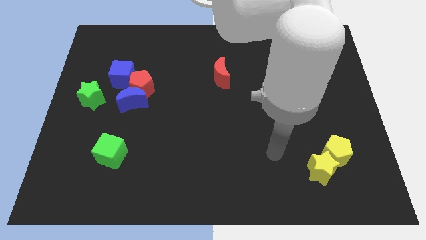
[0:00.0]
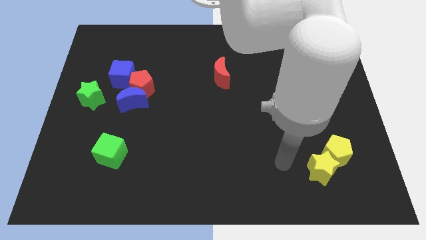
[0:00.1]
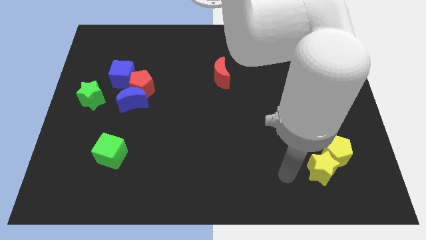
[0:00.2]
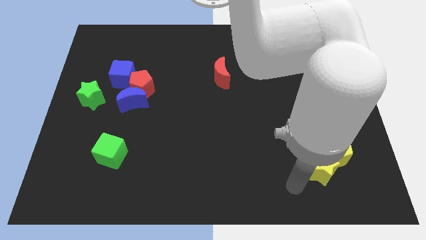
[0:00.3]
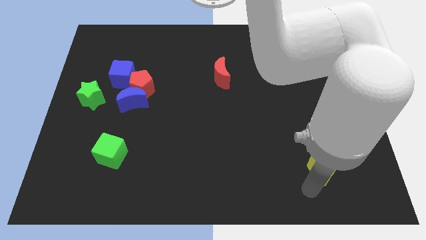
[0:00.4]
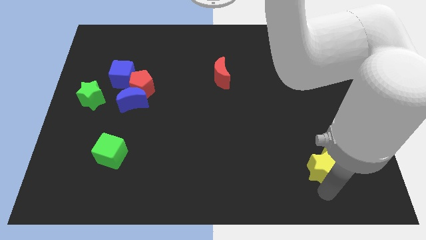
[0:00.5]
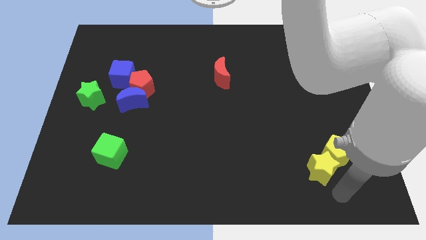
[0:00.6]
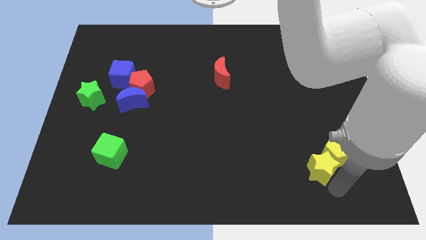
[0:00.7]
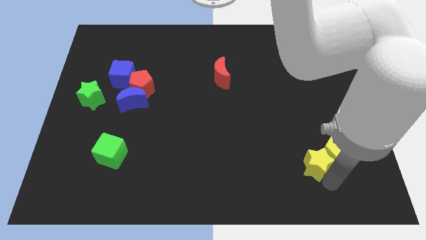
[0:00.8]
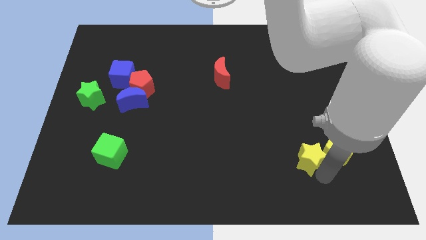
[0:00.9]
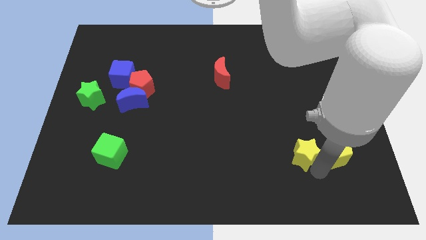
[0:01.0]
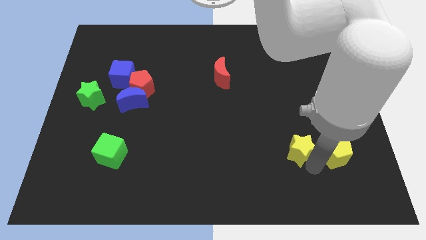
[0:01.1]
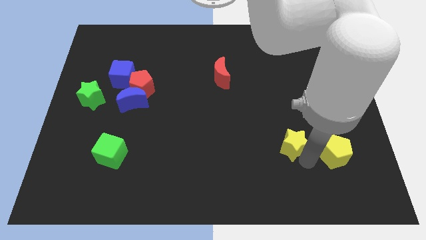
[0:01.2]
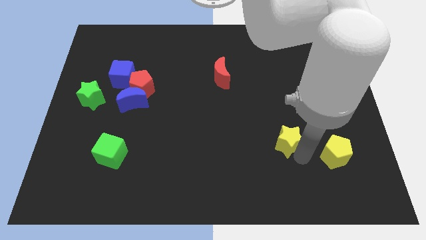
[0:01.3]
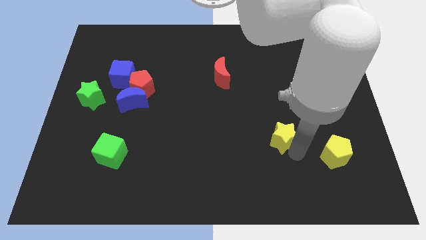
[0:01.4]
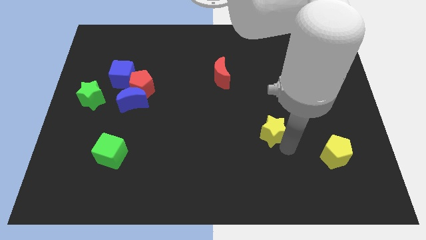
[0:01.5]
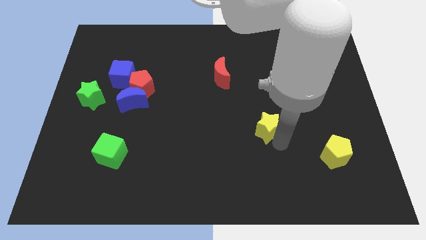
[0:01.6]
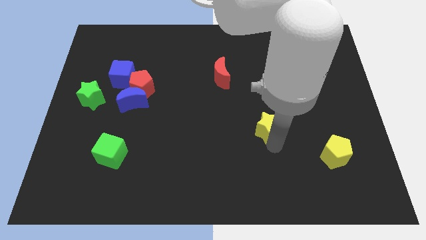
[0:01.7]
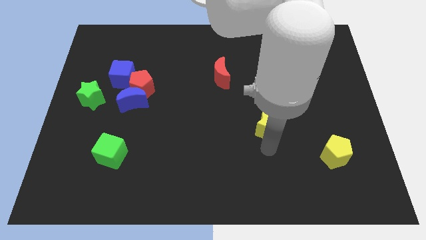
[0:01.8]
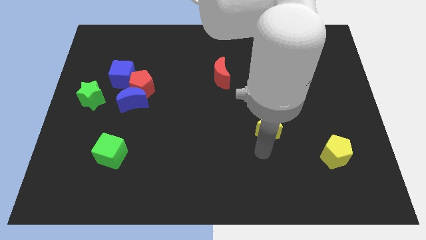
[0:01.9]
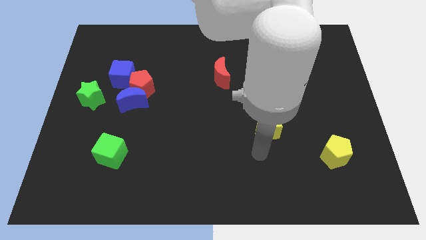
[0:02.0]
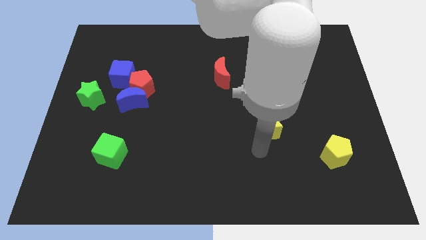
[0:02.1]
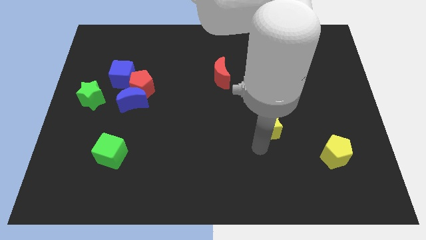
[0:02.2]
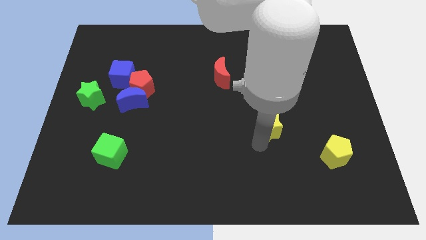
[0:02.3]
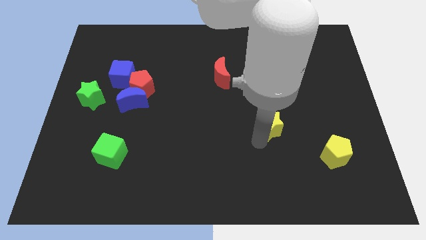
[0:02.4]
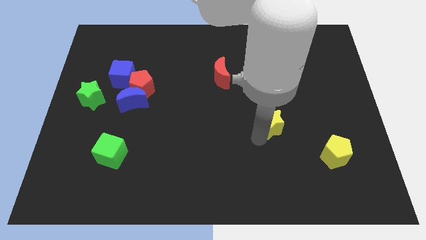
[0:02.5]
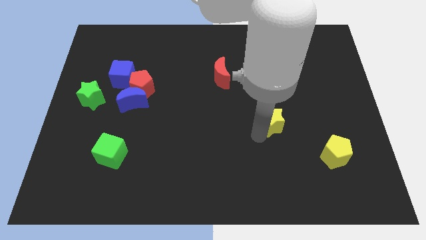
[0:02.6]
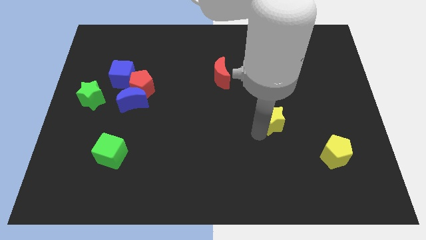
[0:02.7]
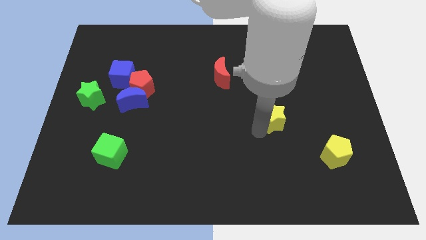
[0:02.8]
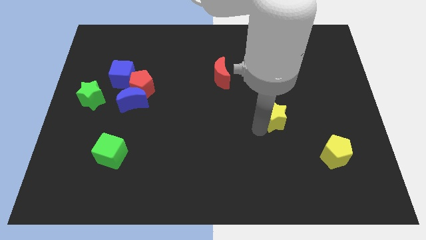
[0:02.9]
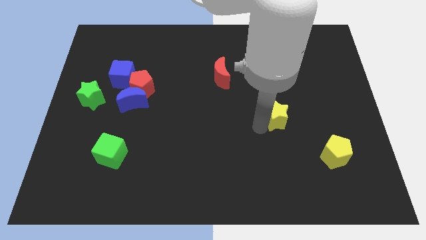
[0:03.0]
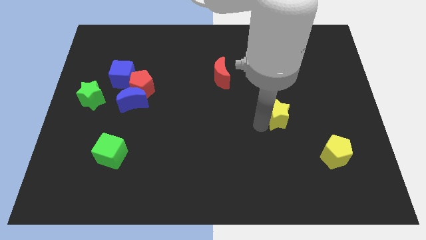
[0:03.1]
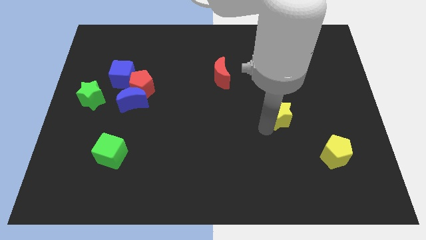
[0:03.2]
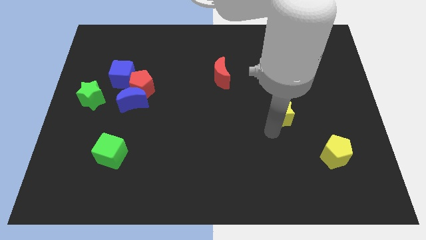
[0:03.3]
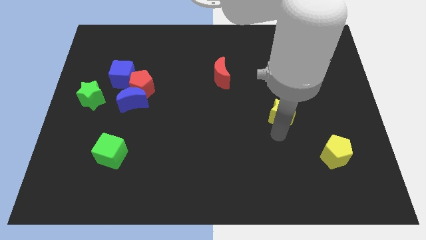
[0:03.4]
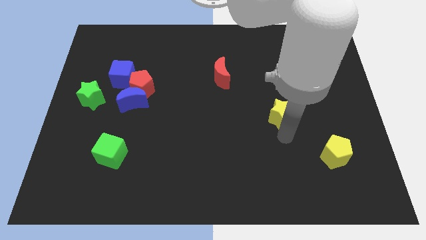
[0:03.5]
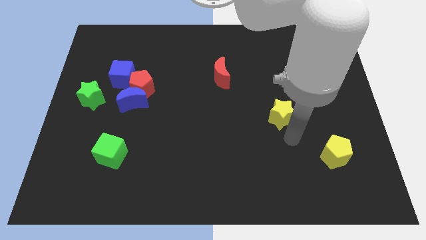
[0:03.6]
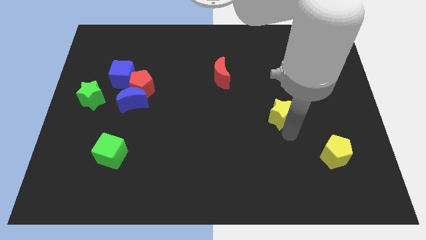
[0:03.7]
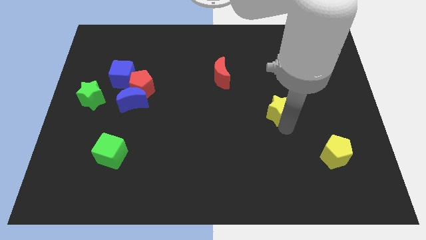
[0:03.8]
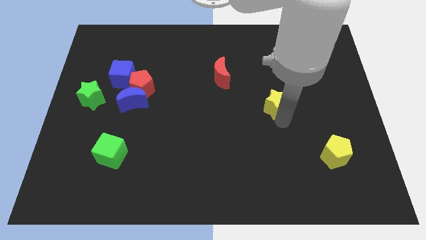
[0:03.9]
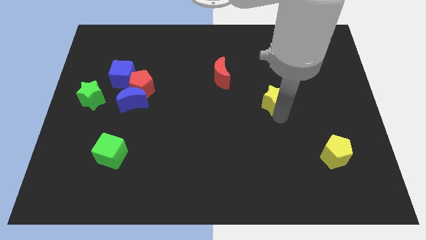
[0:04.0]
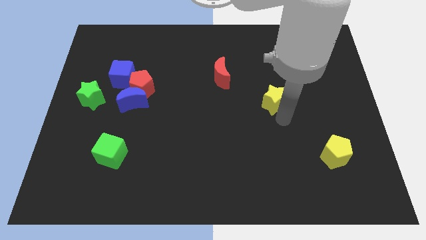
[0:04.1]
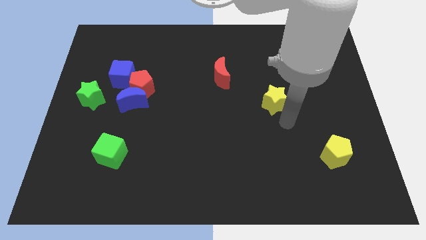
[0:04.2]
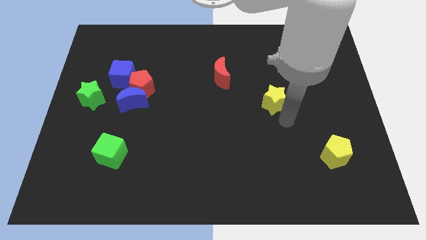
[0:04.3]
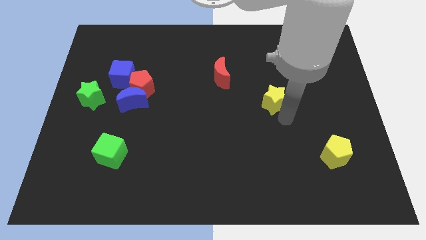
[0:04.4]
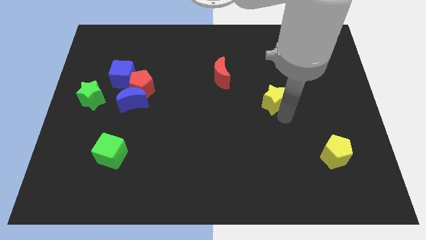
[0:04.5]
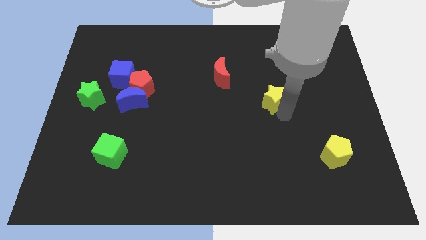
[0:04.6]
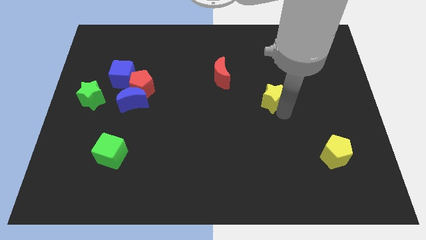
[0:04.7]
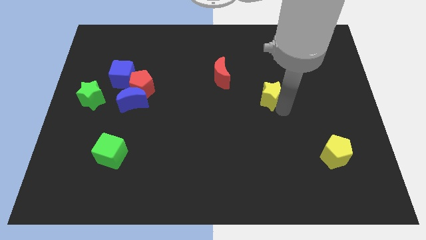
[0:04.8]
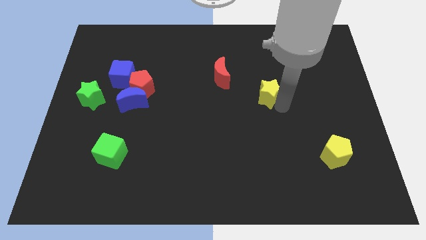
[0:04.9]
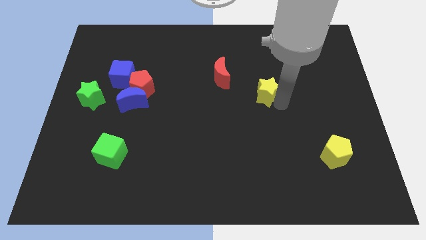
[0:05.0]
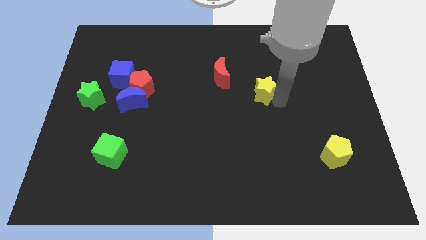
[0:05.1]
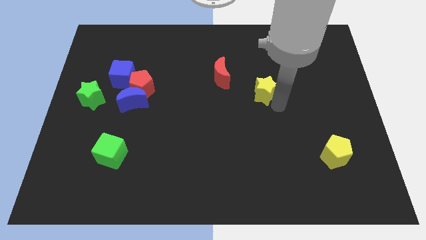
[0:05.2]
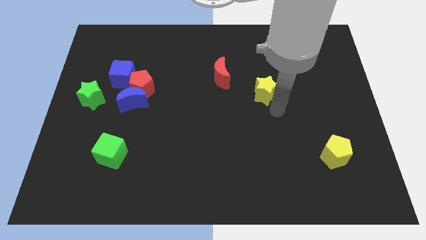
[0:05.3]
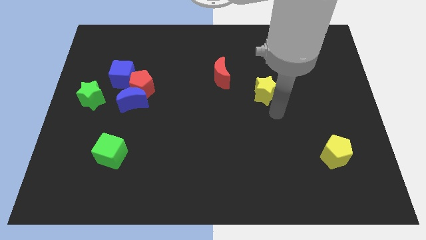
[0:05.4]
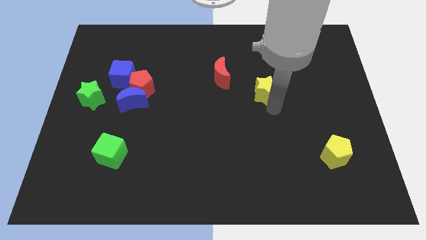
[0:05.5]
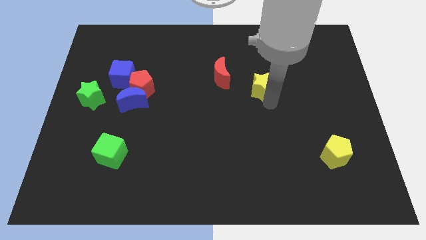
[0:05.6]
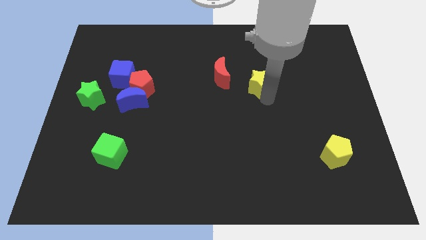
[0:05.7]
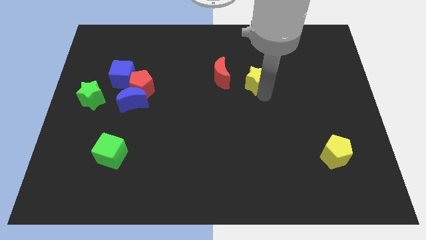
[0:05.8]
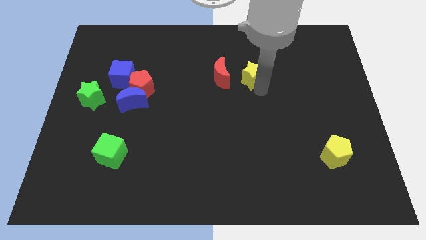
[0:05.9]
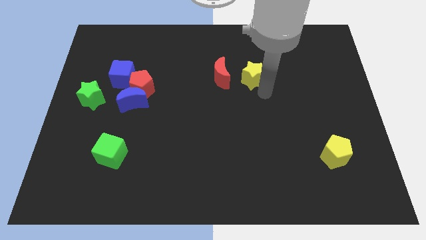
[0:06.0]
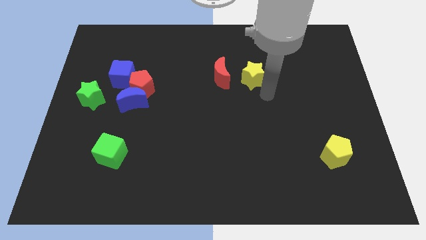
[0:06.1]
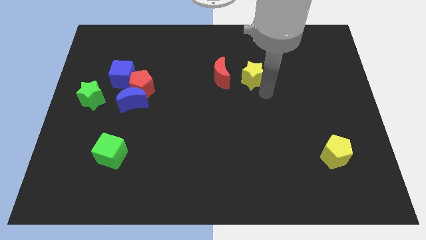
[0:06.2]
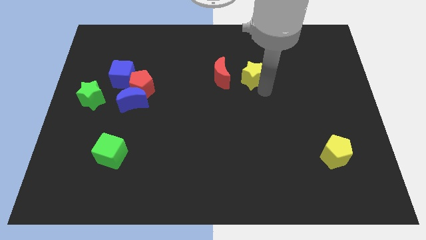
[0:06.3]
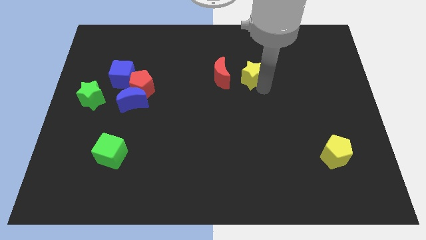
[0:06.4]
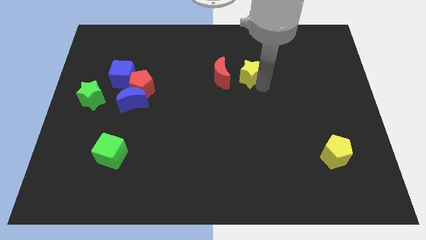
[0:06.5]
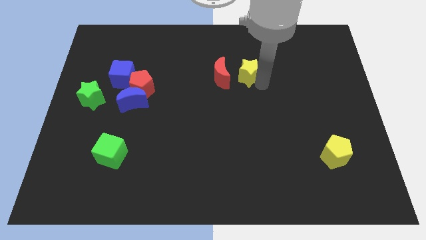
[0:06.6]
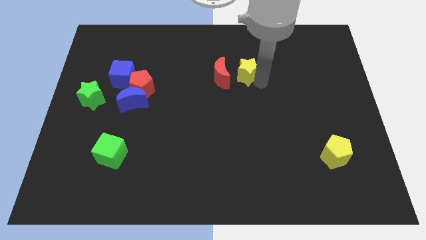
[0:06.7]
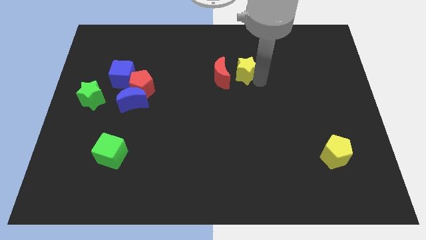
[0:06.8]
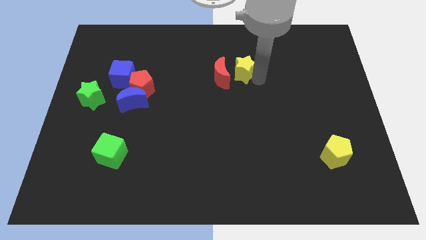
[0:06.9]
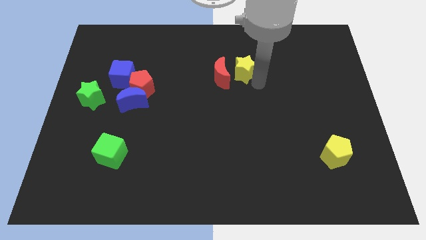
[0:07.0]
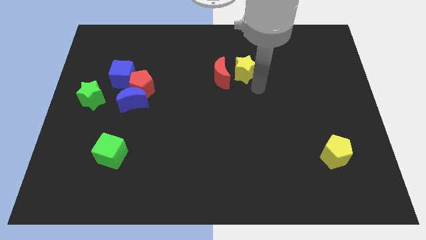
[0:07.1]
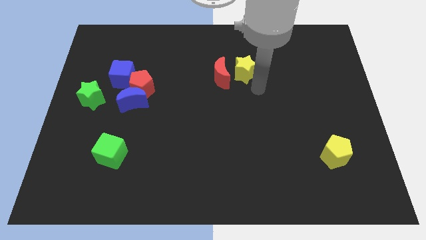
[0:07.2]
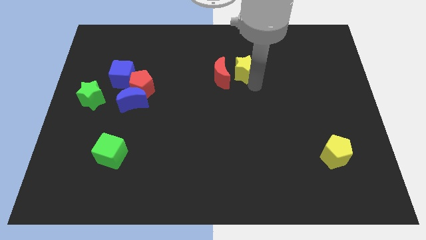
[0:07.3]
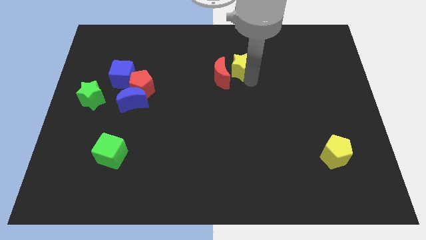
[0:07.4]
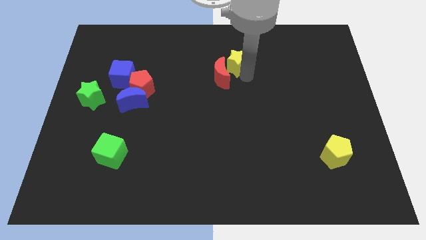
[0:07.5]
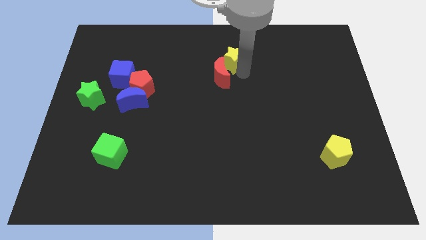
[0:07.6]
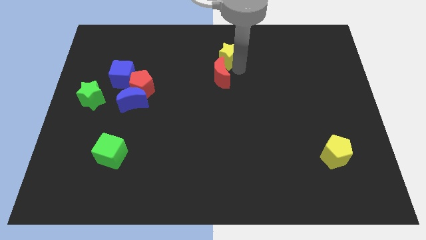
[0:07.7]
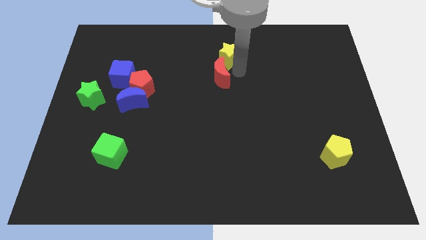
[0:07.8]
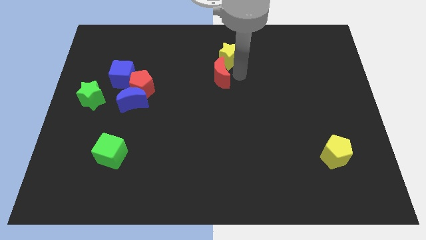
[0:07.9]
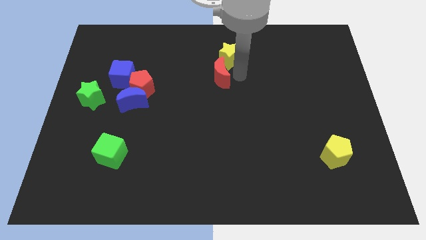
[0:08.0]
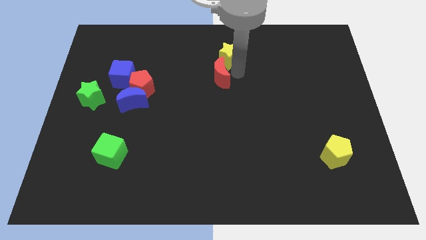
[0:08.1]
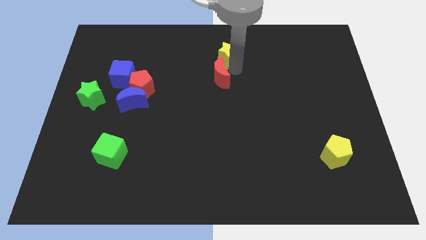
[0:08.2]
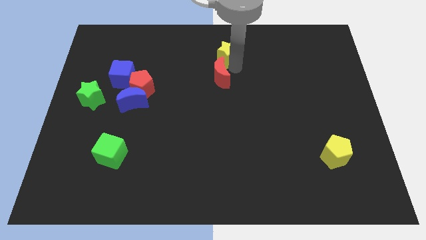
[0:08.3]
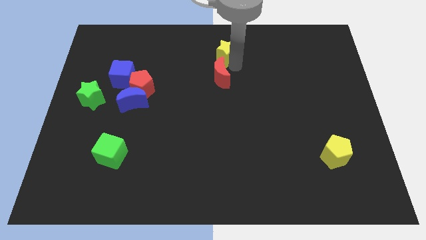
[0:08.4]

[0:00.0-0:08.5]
push the yellow star to the top side
